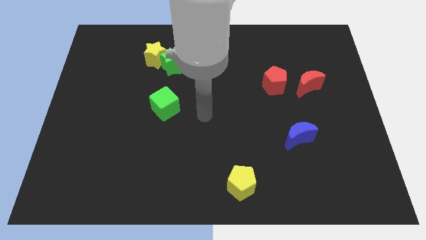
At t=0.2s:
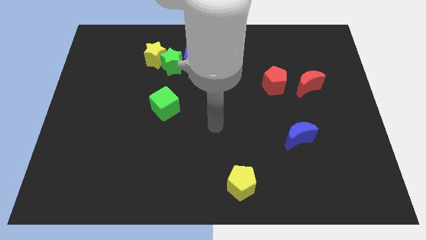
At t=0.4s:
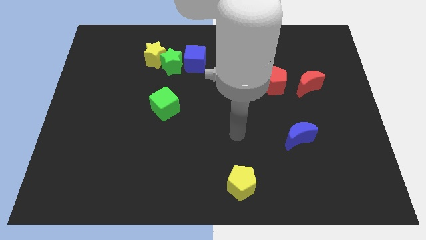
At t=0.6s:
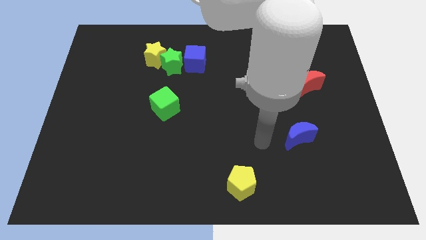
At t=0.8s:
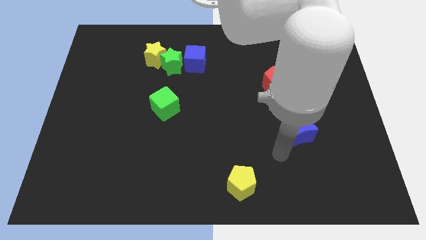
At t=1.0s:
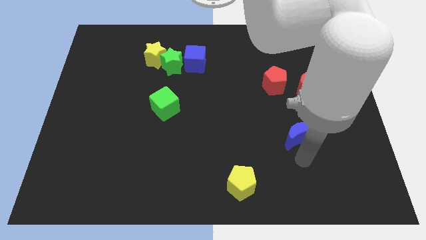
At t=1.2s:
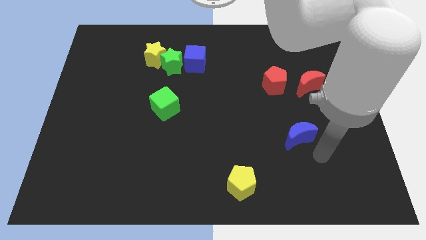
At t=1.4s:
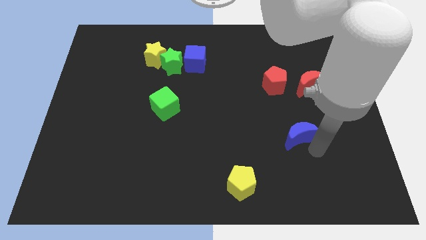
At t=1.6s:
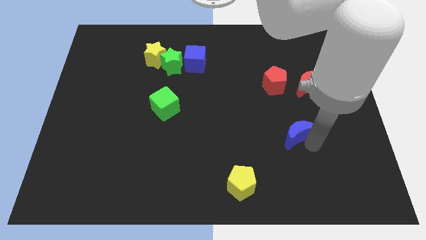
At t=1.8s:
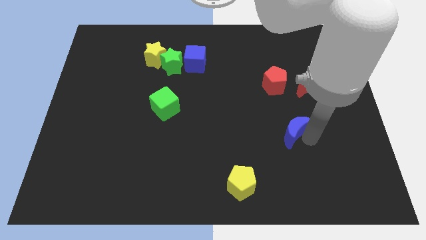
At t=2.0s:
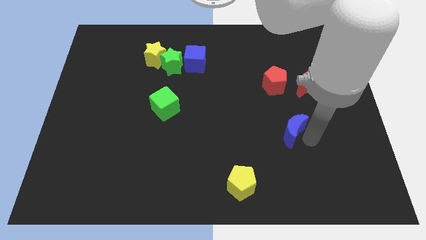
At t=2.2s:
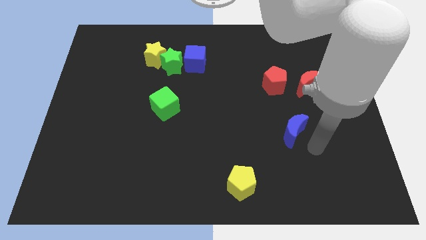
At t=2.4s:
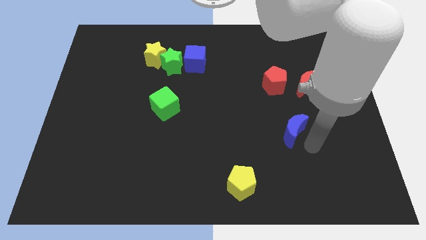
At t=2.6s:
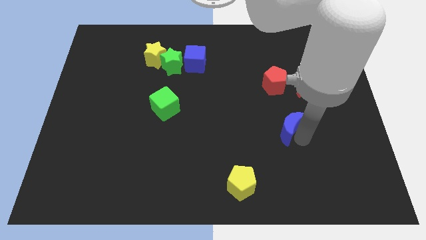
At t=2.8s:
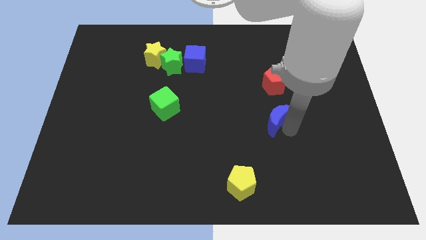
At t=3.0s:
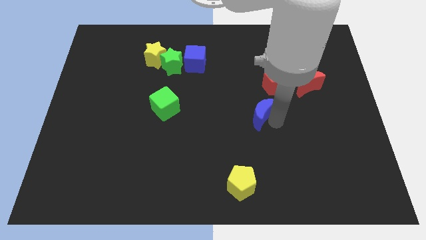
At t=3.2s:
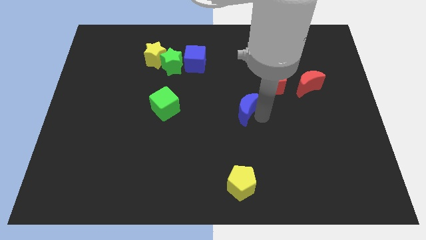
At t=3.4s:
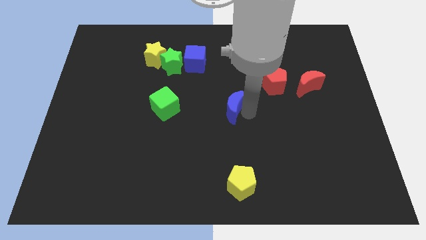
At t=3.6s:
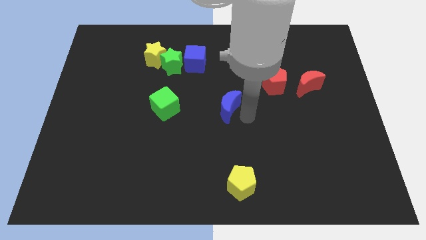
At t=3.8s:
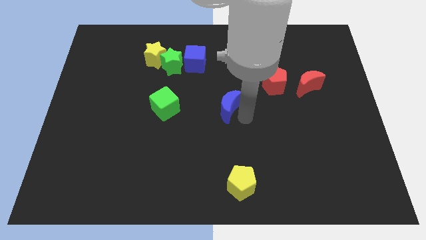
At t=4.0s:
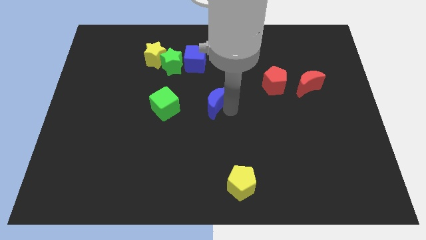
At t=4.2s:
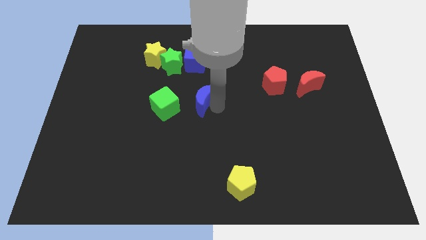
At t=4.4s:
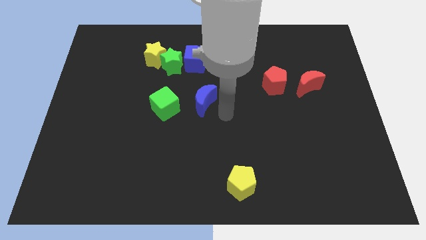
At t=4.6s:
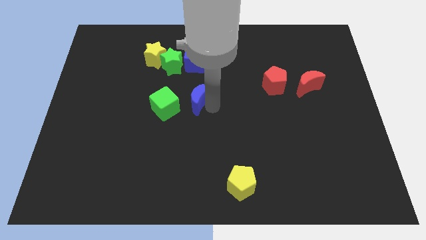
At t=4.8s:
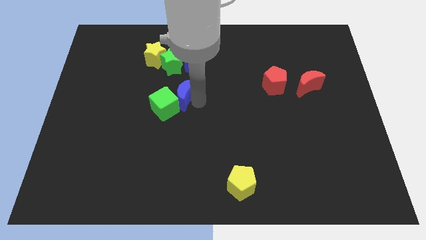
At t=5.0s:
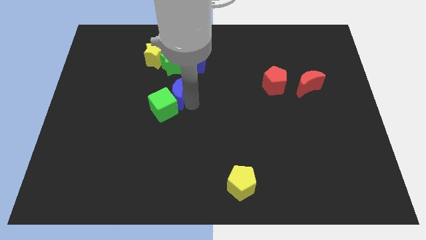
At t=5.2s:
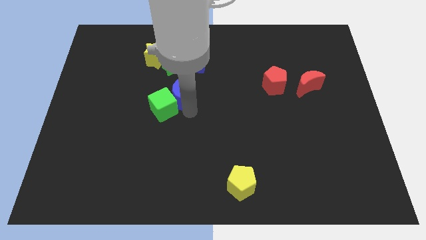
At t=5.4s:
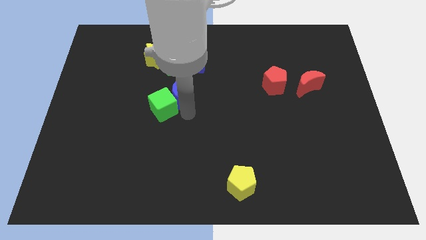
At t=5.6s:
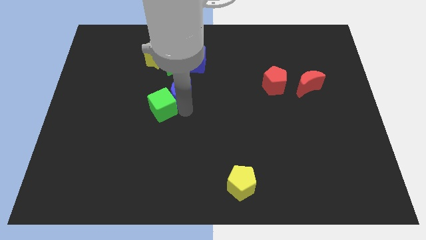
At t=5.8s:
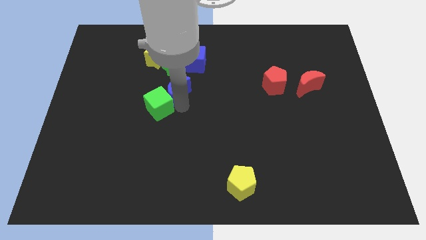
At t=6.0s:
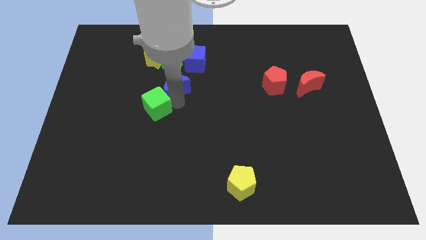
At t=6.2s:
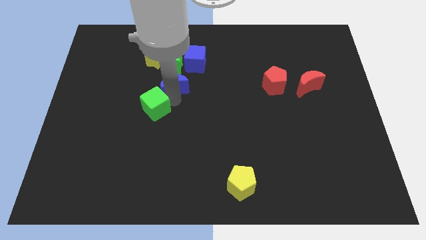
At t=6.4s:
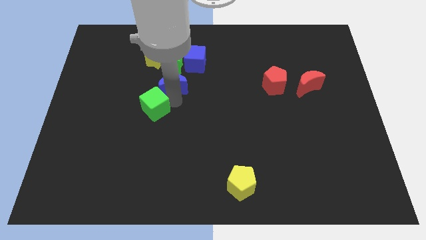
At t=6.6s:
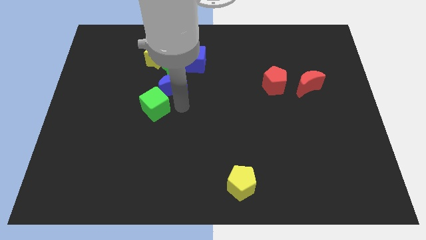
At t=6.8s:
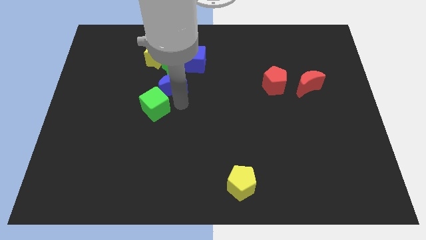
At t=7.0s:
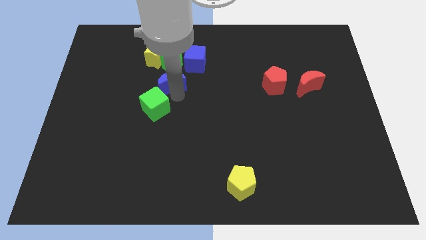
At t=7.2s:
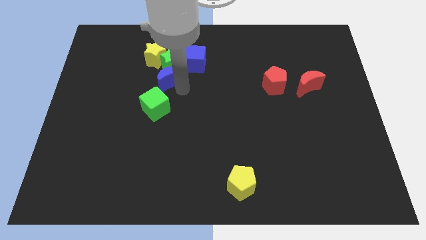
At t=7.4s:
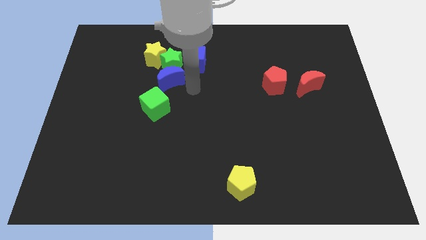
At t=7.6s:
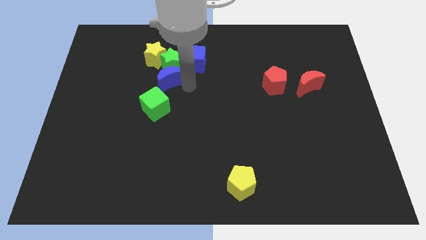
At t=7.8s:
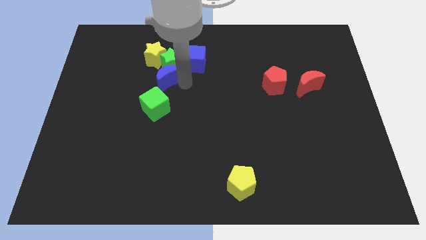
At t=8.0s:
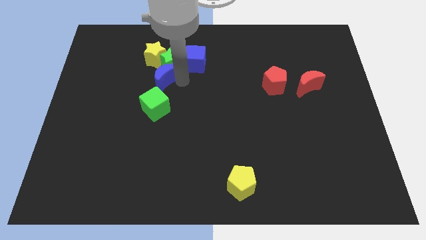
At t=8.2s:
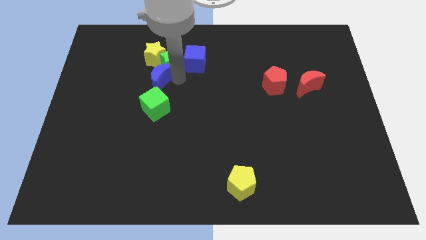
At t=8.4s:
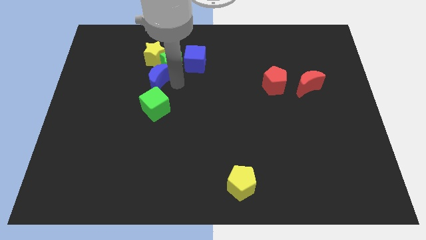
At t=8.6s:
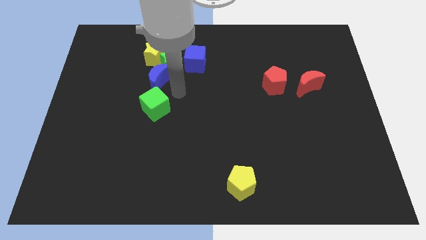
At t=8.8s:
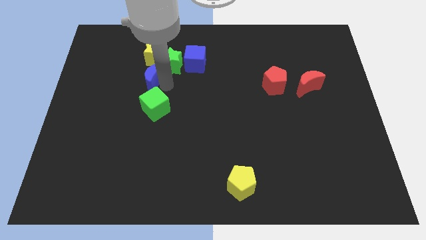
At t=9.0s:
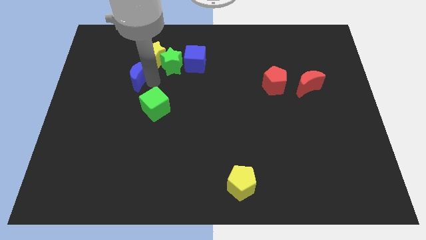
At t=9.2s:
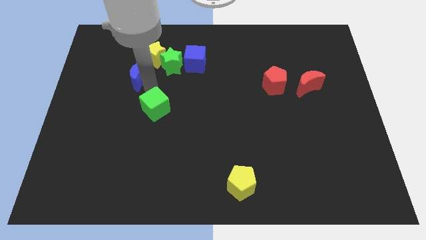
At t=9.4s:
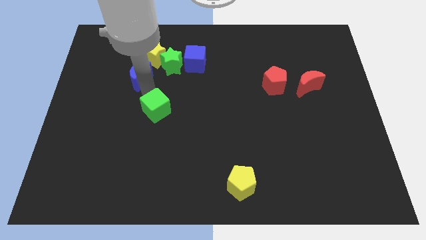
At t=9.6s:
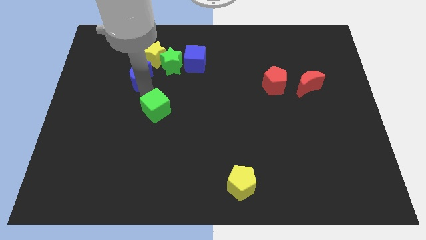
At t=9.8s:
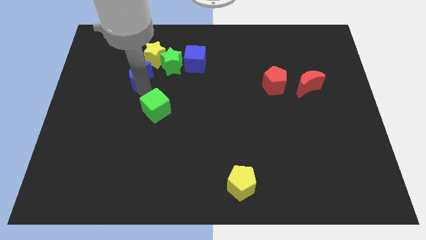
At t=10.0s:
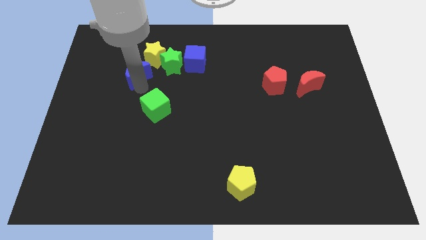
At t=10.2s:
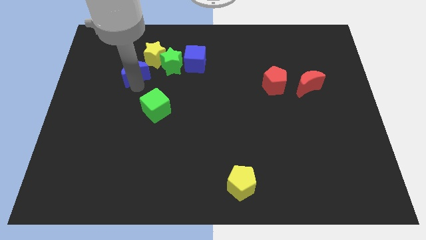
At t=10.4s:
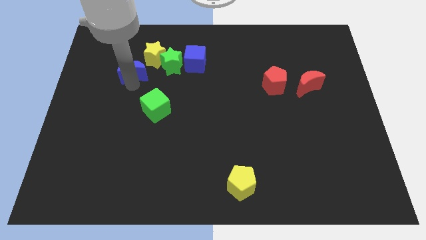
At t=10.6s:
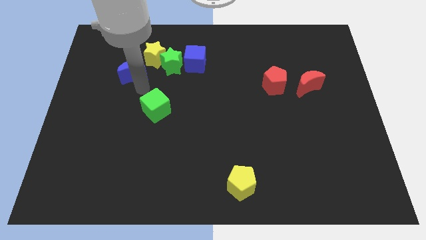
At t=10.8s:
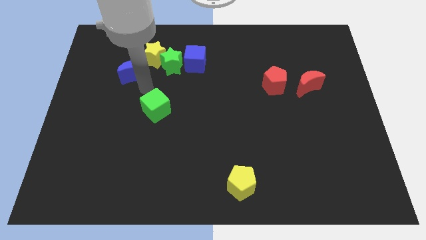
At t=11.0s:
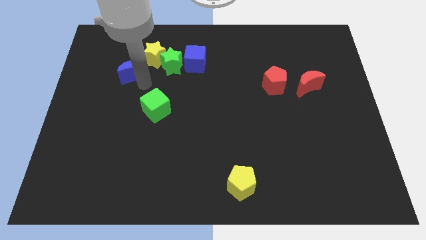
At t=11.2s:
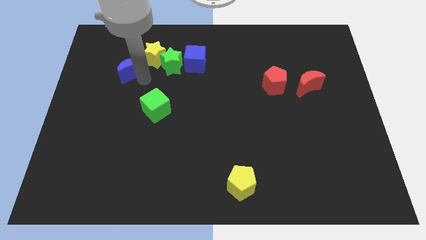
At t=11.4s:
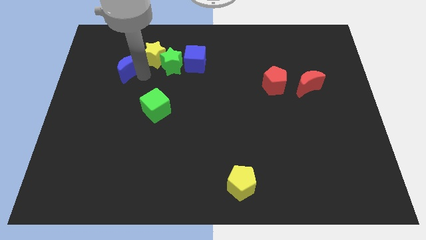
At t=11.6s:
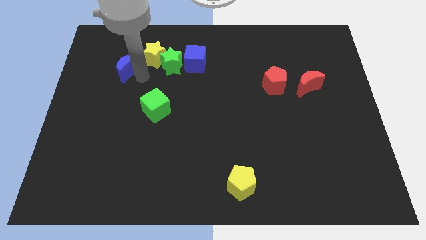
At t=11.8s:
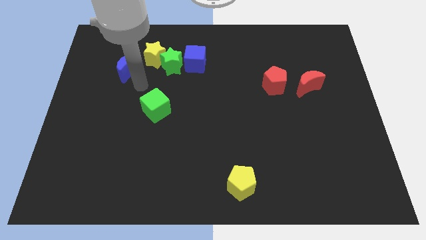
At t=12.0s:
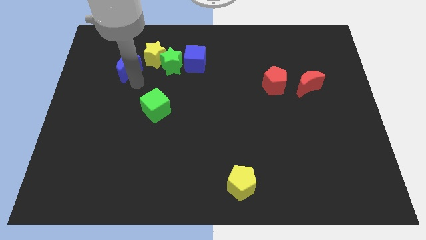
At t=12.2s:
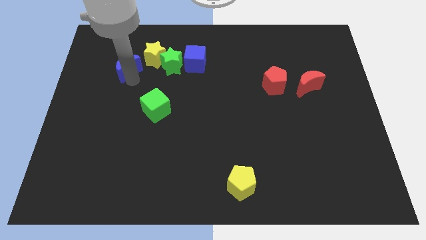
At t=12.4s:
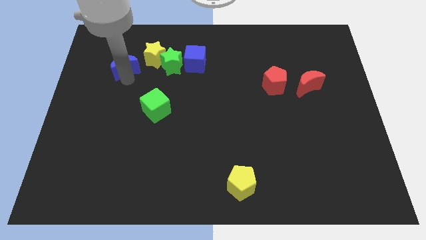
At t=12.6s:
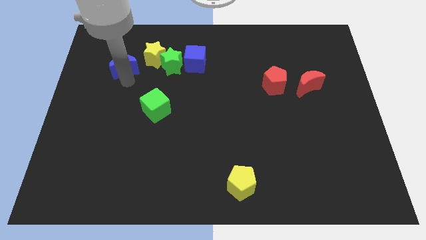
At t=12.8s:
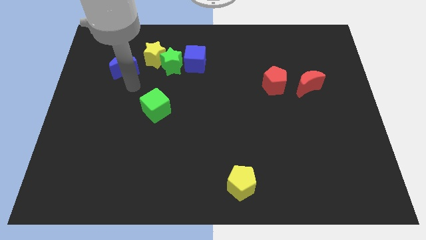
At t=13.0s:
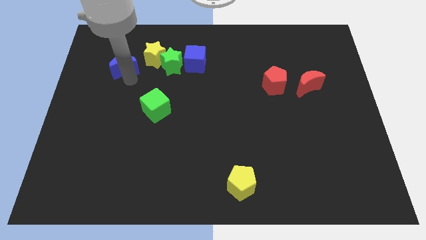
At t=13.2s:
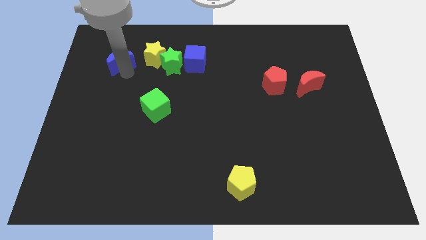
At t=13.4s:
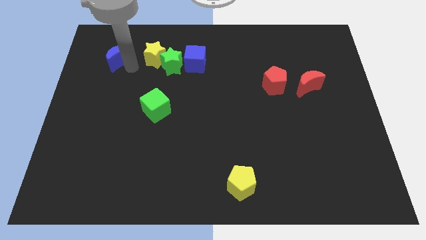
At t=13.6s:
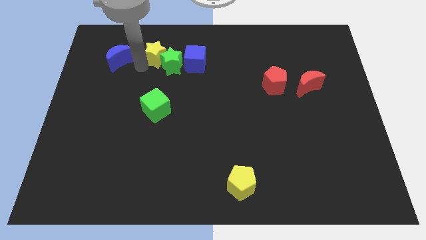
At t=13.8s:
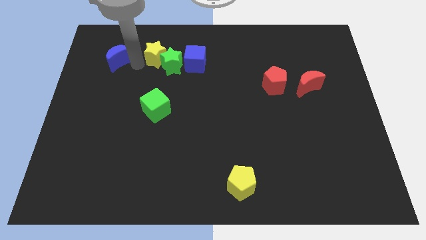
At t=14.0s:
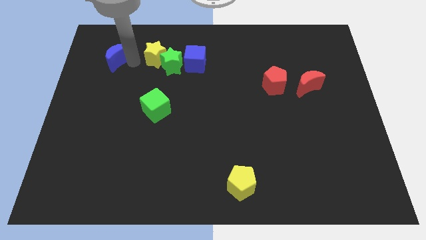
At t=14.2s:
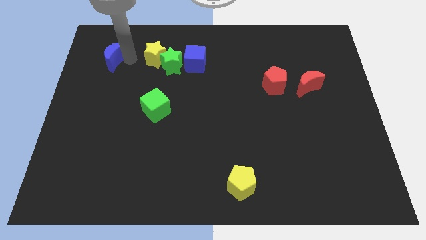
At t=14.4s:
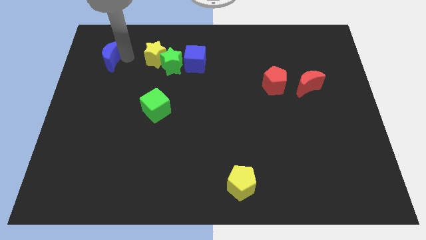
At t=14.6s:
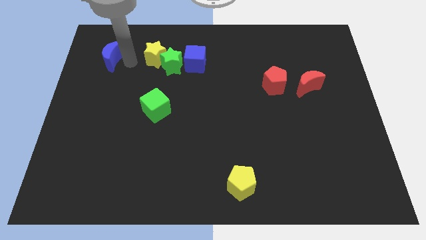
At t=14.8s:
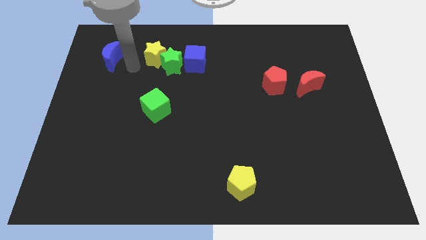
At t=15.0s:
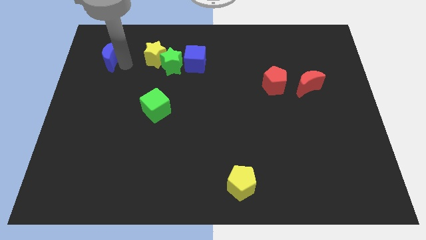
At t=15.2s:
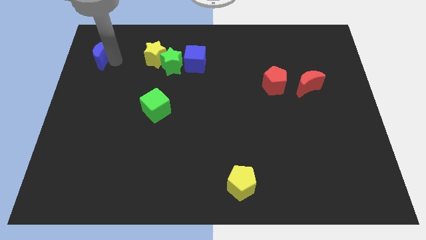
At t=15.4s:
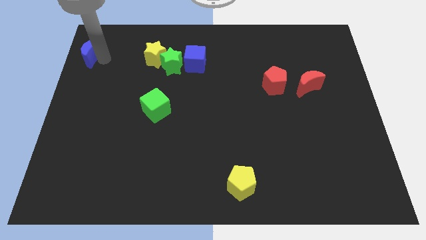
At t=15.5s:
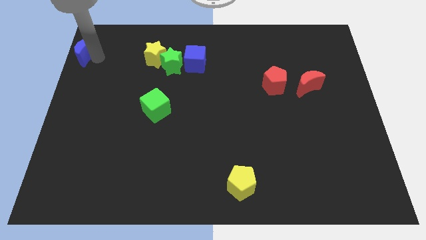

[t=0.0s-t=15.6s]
move the blue moon to the top left corner
